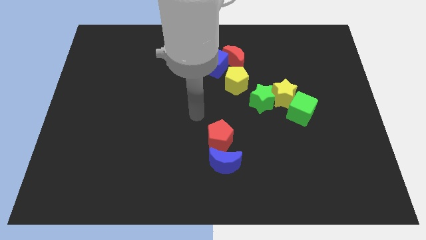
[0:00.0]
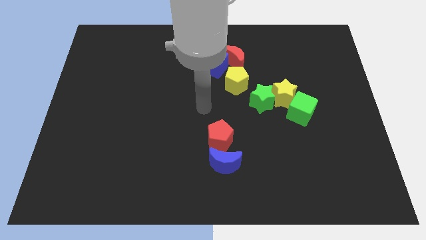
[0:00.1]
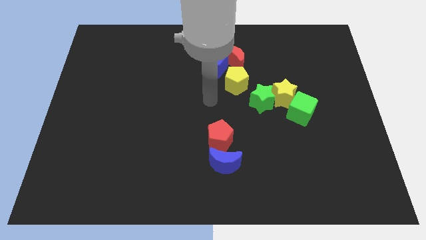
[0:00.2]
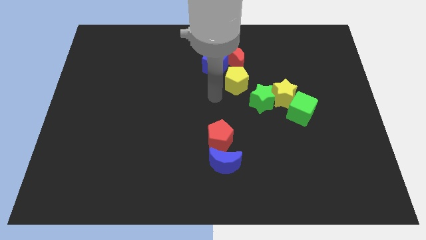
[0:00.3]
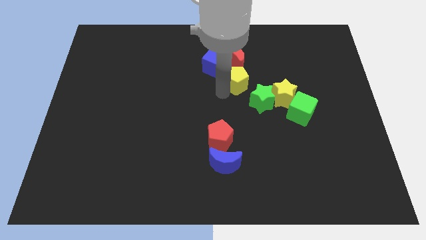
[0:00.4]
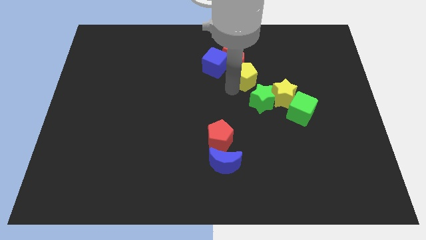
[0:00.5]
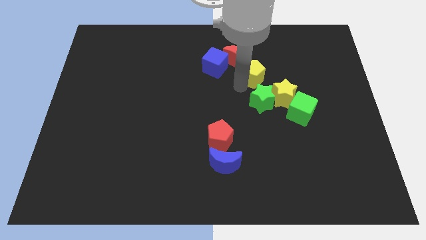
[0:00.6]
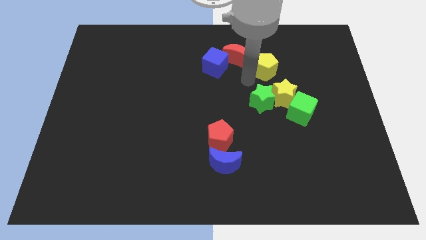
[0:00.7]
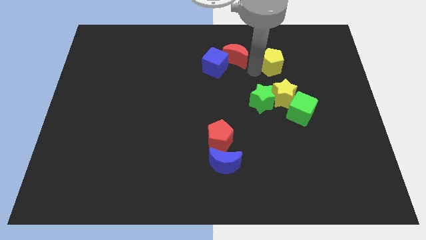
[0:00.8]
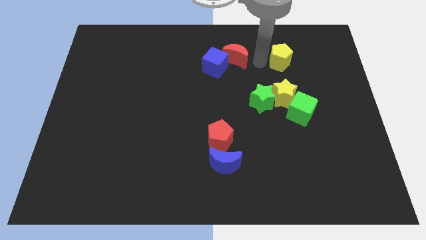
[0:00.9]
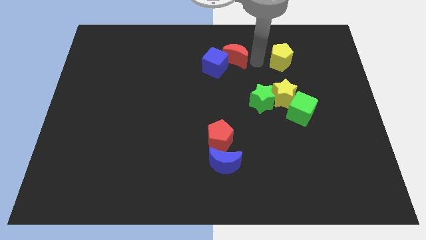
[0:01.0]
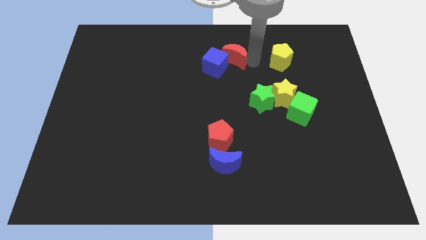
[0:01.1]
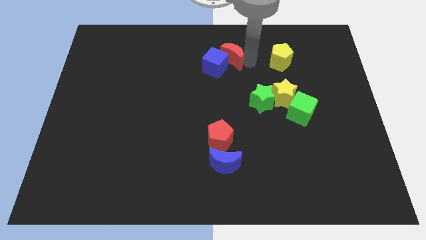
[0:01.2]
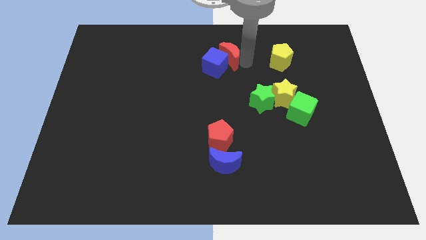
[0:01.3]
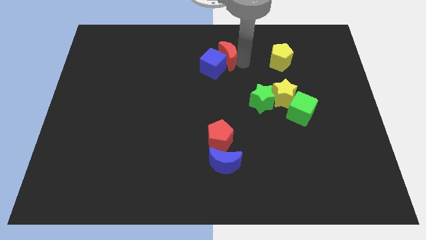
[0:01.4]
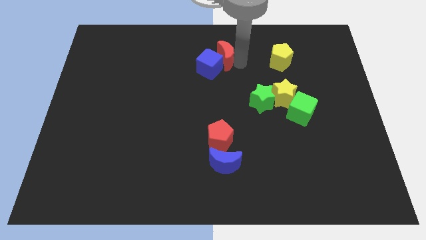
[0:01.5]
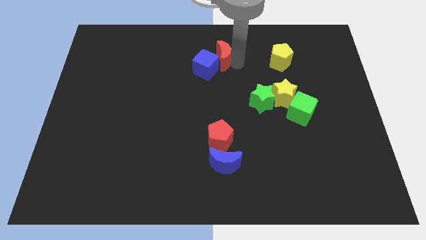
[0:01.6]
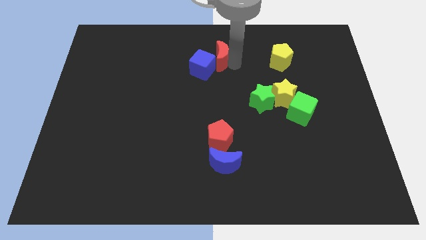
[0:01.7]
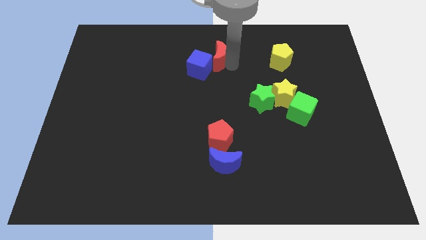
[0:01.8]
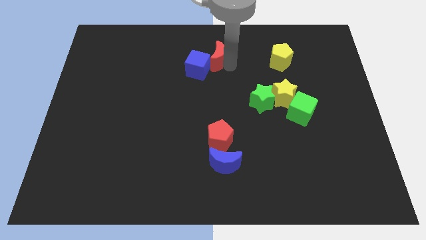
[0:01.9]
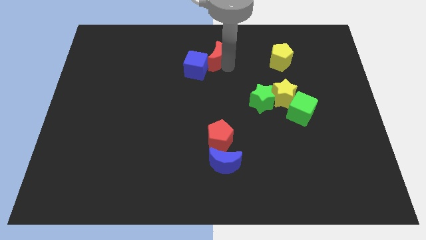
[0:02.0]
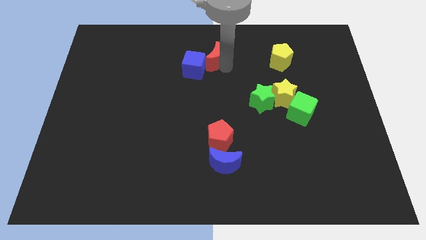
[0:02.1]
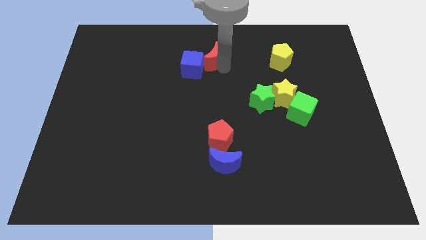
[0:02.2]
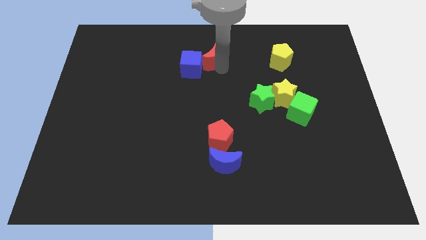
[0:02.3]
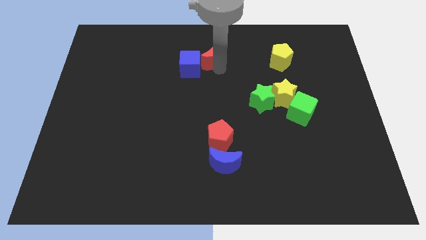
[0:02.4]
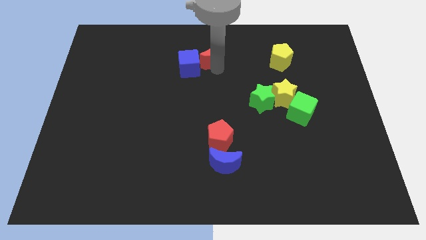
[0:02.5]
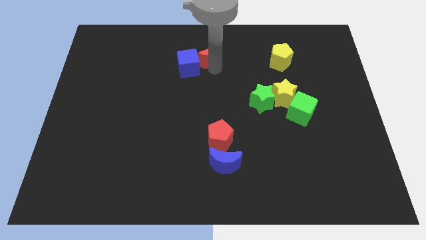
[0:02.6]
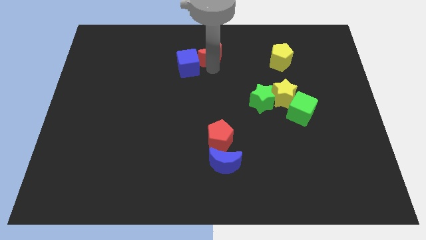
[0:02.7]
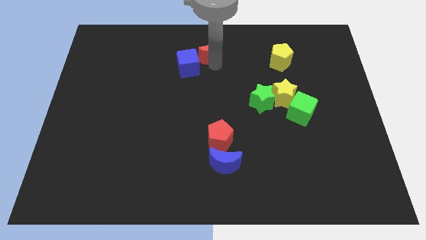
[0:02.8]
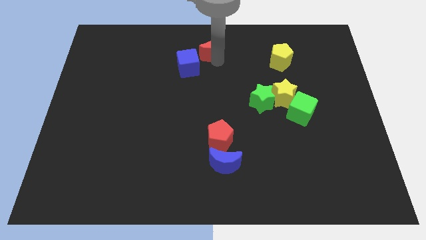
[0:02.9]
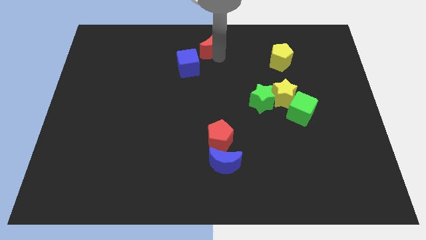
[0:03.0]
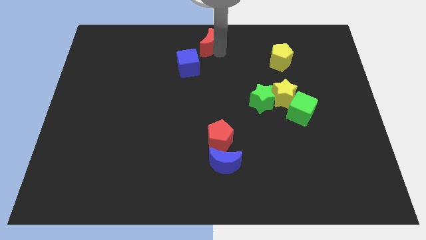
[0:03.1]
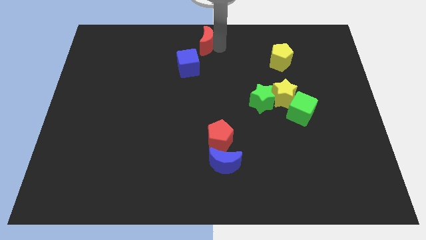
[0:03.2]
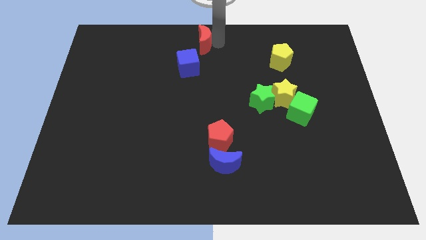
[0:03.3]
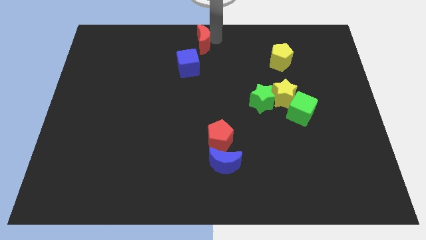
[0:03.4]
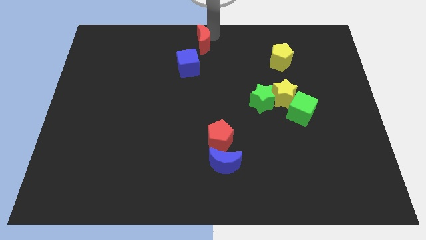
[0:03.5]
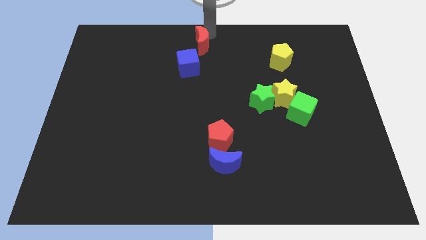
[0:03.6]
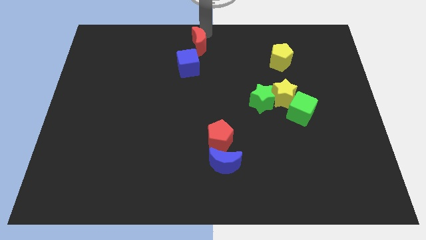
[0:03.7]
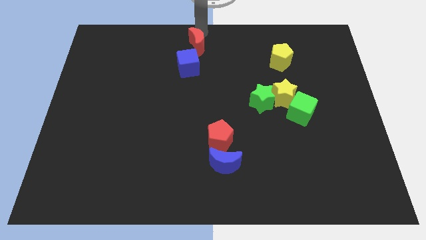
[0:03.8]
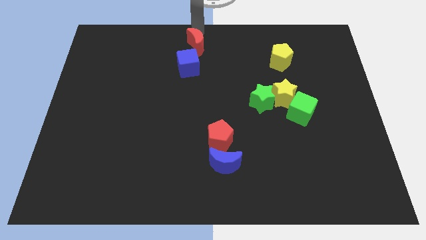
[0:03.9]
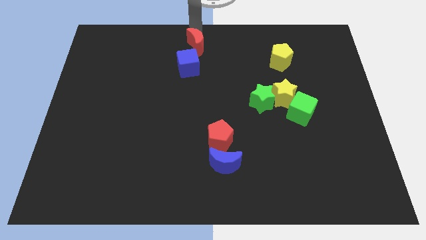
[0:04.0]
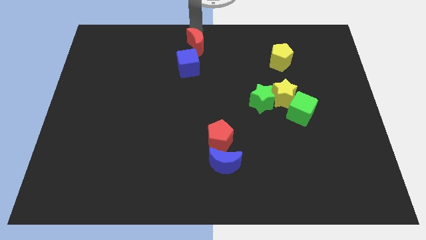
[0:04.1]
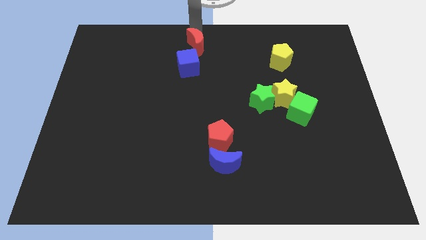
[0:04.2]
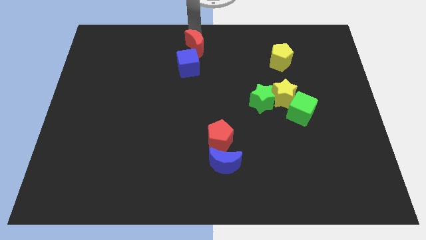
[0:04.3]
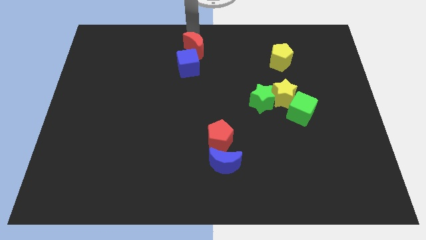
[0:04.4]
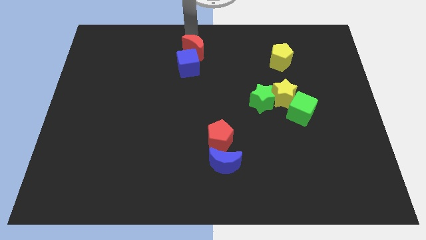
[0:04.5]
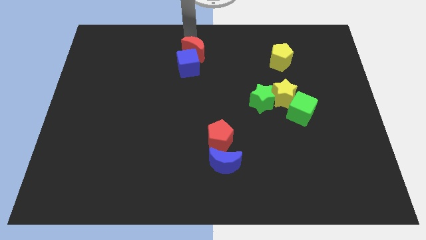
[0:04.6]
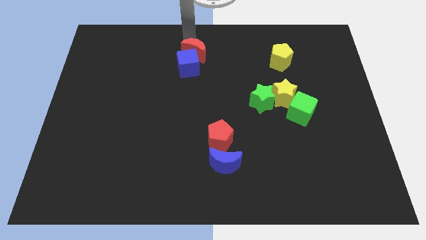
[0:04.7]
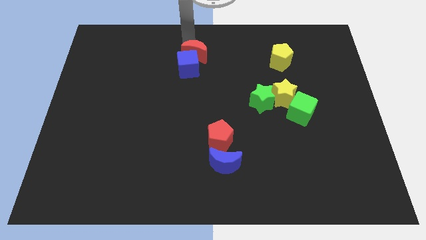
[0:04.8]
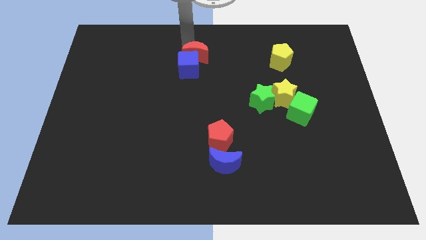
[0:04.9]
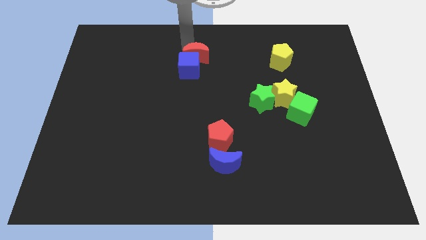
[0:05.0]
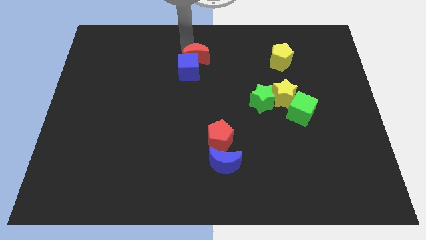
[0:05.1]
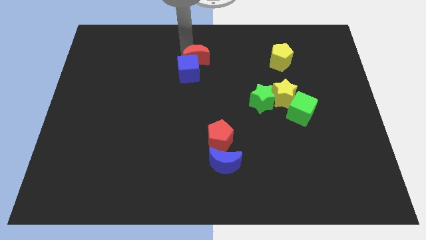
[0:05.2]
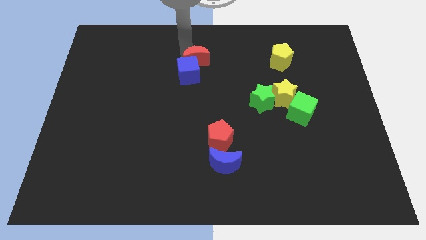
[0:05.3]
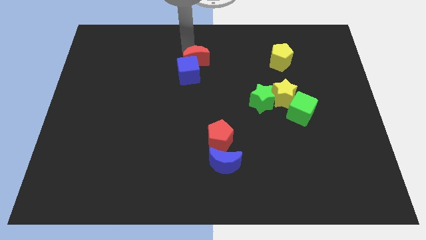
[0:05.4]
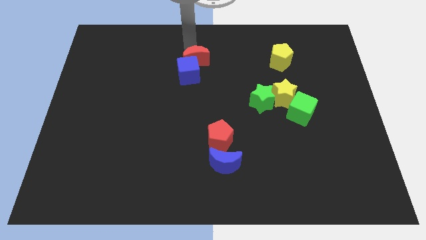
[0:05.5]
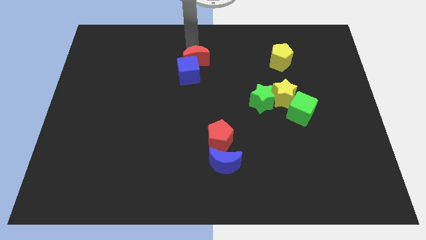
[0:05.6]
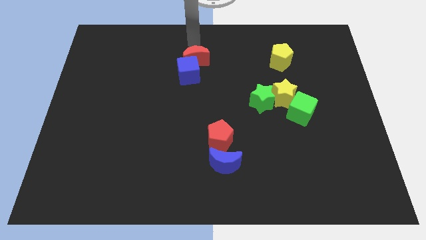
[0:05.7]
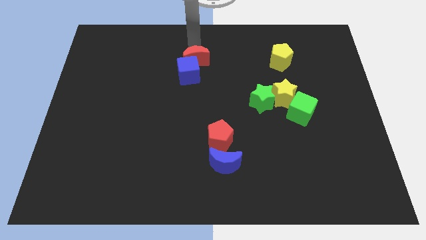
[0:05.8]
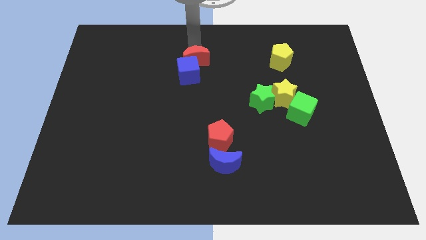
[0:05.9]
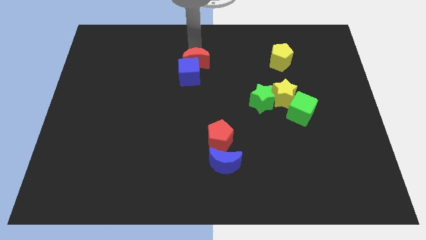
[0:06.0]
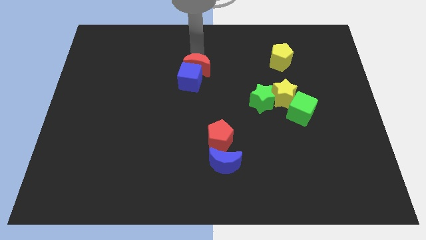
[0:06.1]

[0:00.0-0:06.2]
move the red moon down and to the left diagonally a bit

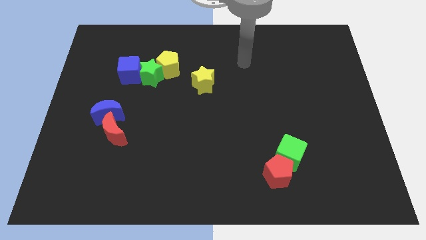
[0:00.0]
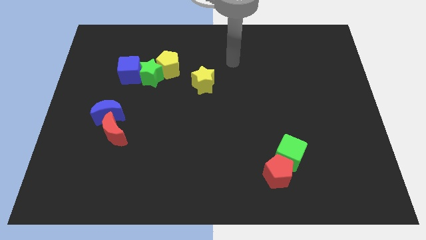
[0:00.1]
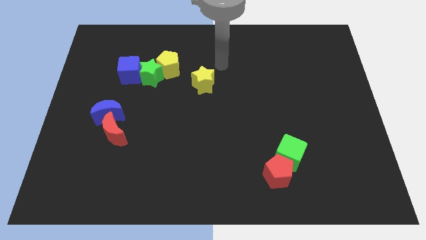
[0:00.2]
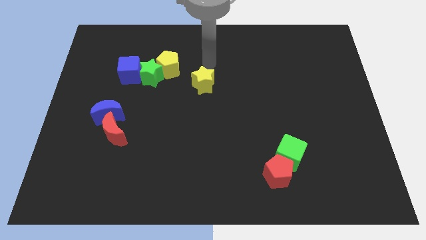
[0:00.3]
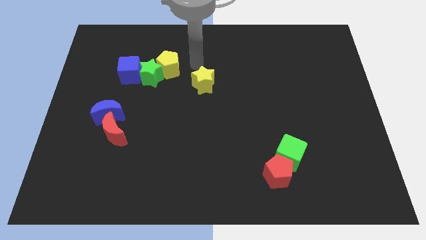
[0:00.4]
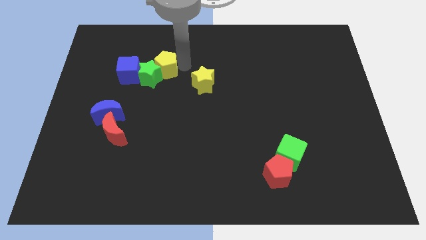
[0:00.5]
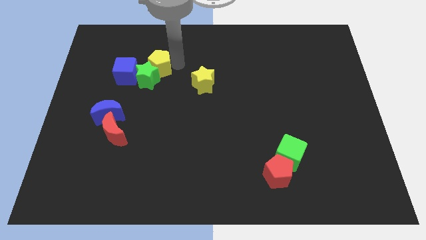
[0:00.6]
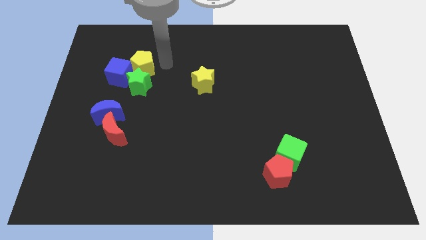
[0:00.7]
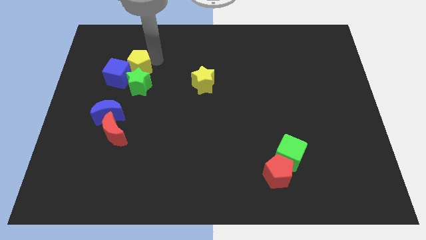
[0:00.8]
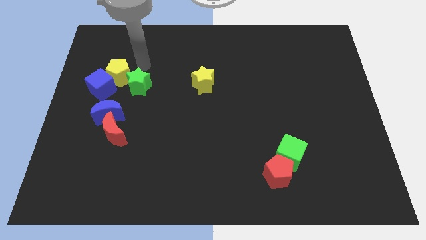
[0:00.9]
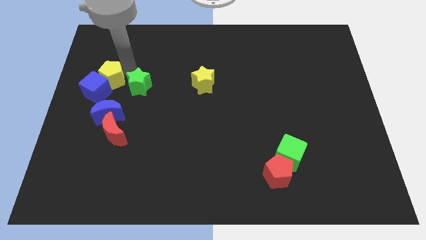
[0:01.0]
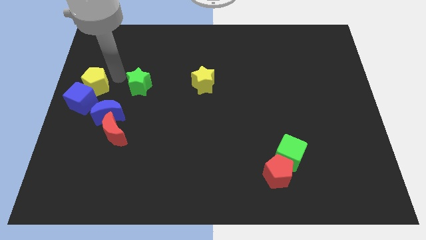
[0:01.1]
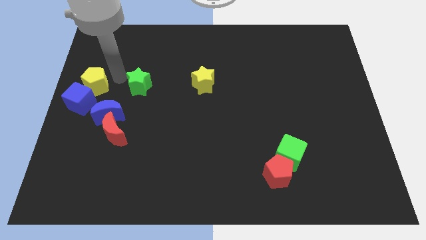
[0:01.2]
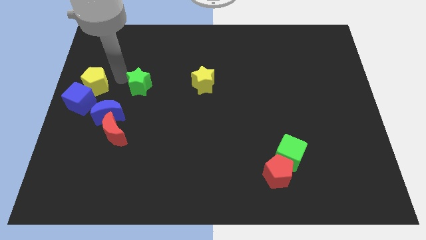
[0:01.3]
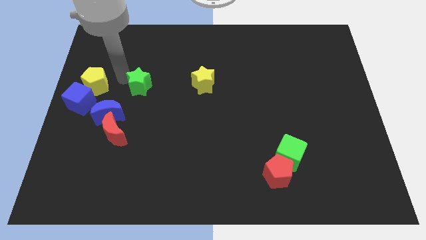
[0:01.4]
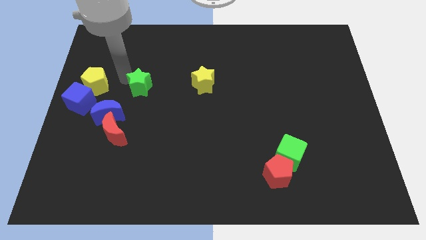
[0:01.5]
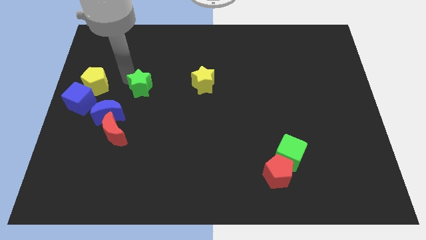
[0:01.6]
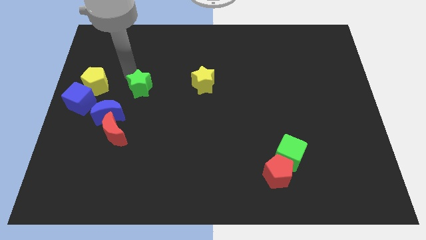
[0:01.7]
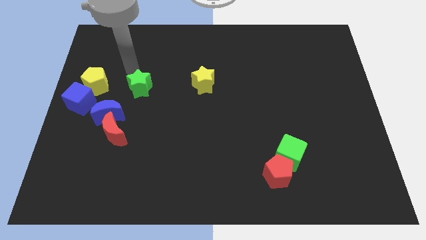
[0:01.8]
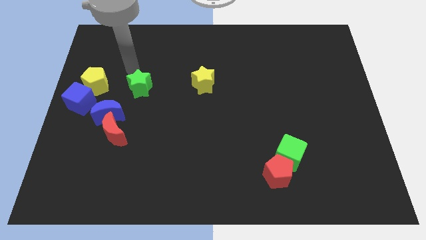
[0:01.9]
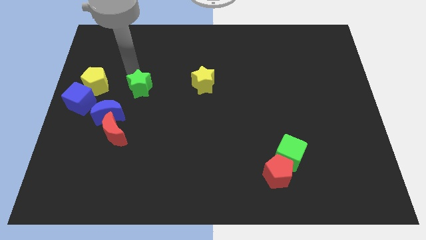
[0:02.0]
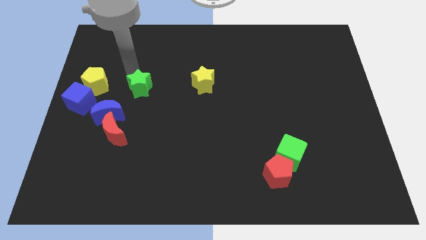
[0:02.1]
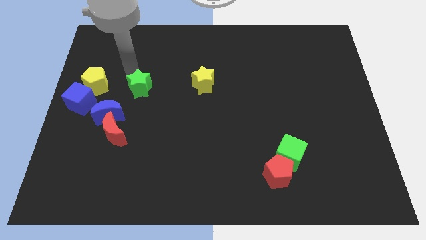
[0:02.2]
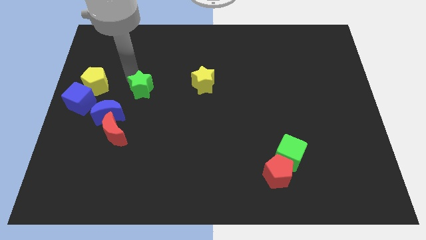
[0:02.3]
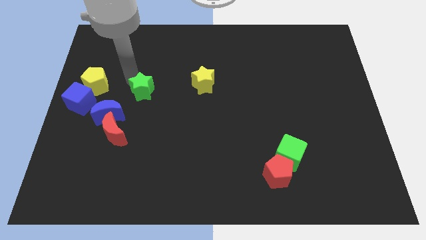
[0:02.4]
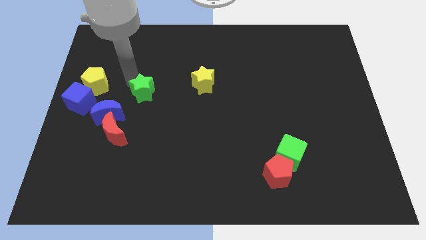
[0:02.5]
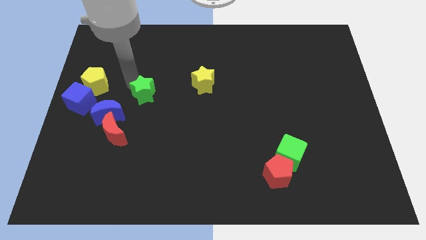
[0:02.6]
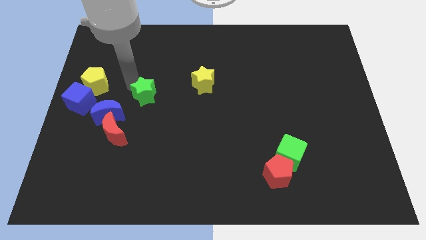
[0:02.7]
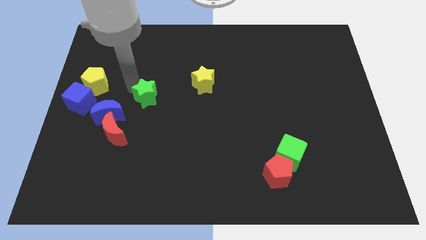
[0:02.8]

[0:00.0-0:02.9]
move the green star downwards slightly
